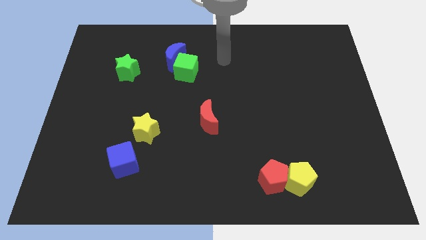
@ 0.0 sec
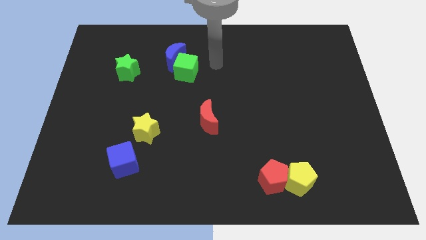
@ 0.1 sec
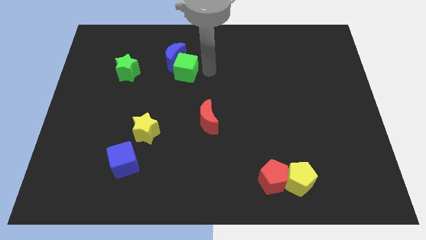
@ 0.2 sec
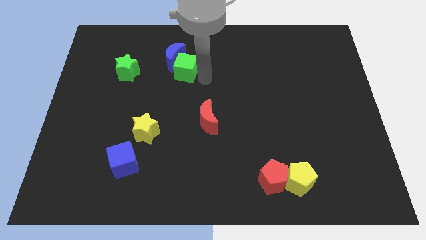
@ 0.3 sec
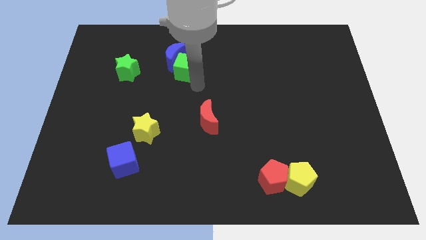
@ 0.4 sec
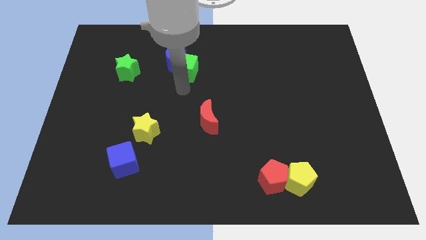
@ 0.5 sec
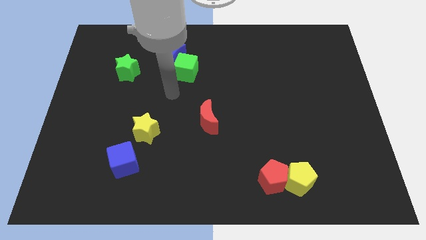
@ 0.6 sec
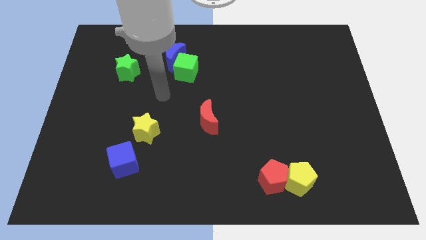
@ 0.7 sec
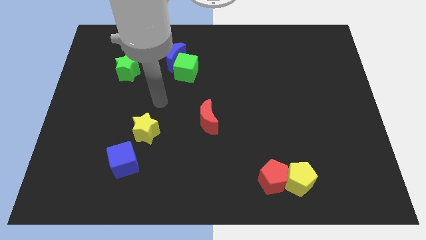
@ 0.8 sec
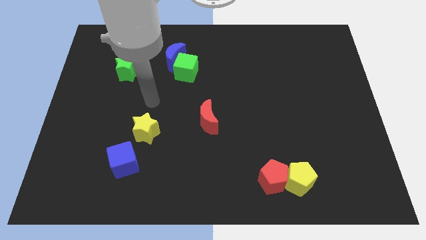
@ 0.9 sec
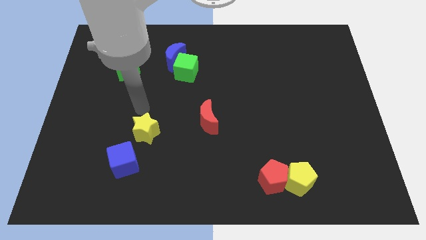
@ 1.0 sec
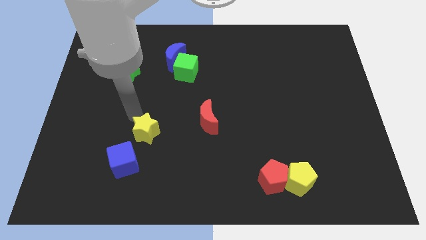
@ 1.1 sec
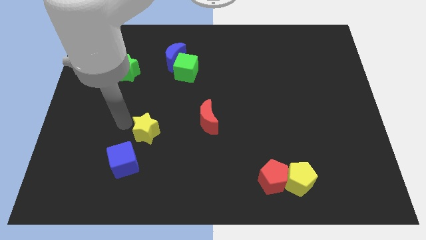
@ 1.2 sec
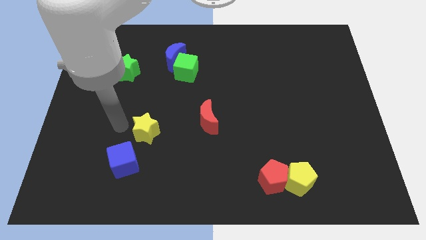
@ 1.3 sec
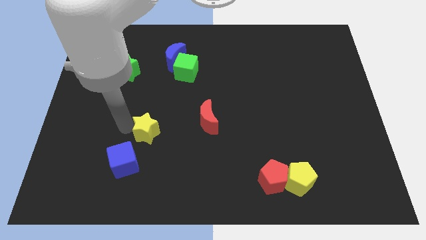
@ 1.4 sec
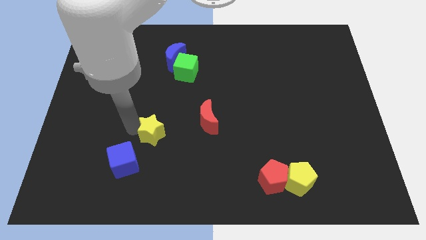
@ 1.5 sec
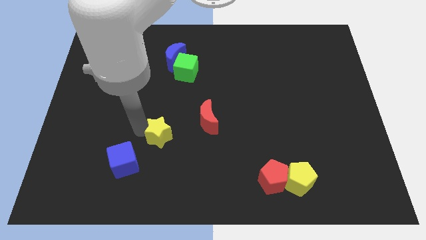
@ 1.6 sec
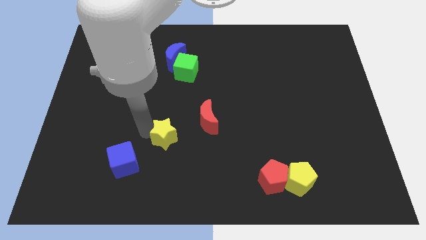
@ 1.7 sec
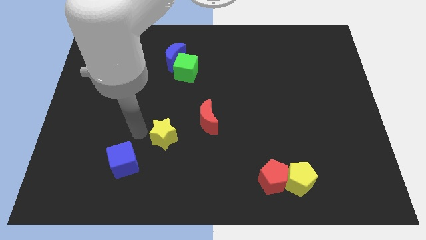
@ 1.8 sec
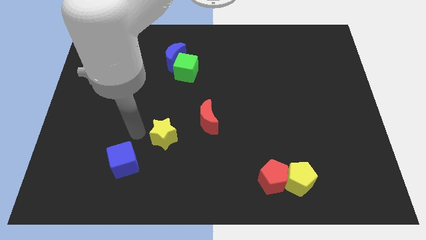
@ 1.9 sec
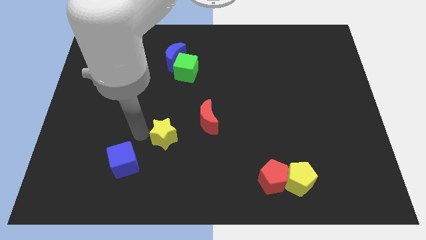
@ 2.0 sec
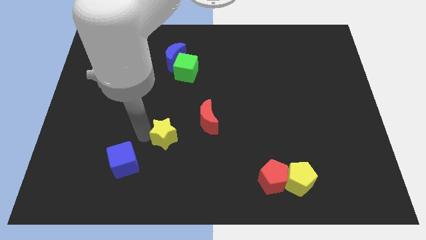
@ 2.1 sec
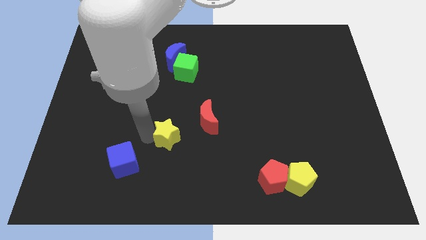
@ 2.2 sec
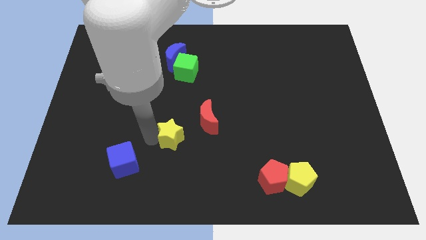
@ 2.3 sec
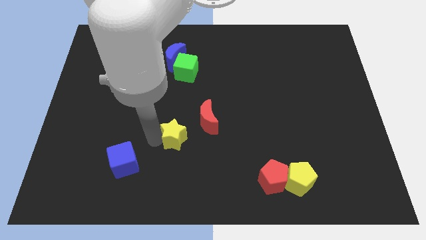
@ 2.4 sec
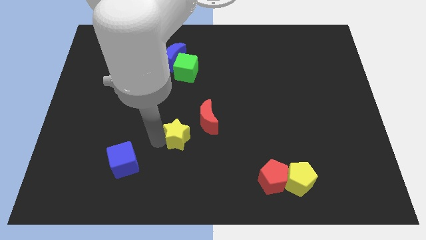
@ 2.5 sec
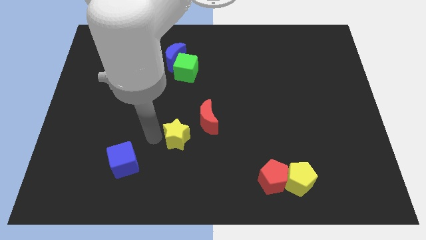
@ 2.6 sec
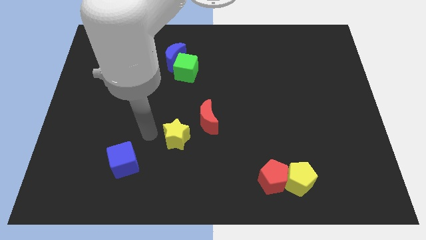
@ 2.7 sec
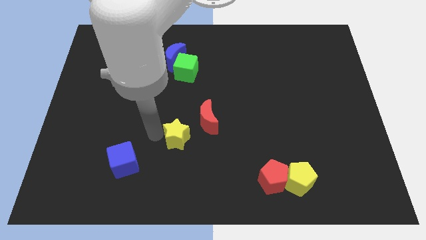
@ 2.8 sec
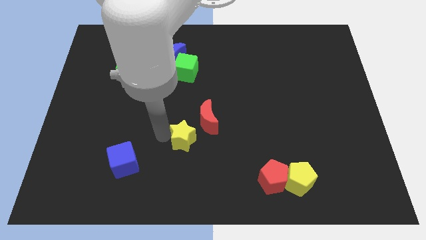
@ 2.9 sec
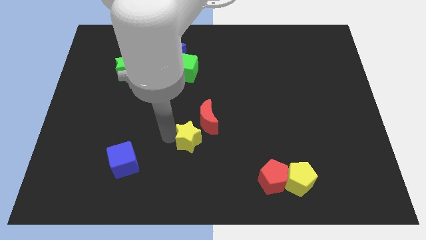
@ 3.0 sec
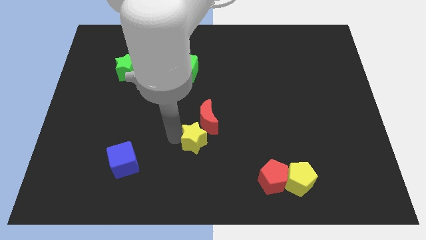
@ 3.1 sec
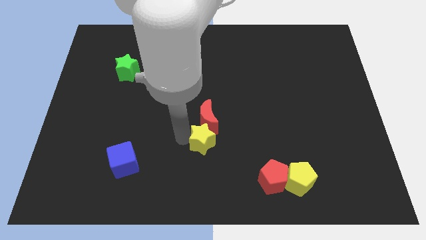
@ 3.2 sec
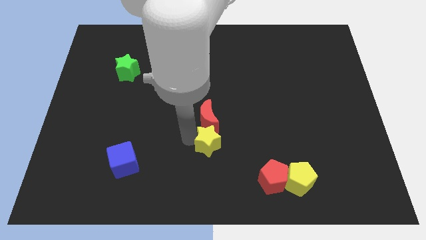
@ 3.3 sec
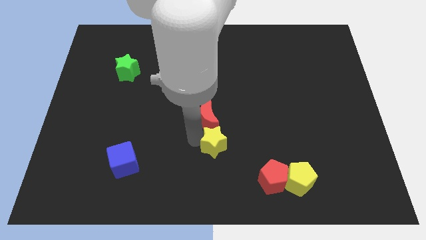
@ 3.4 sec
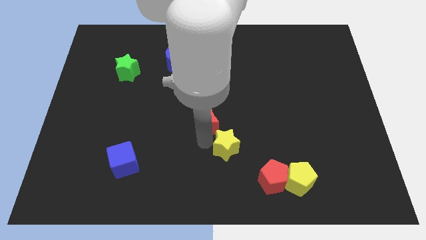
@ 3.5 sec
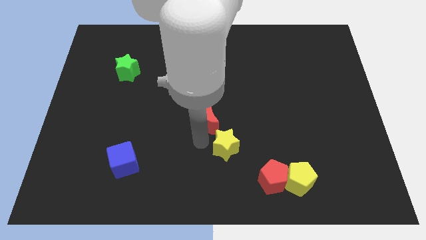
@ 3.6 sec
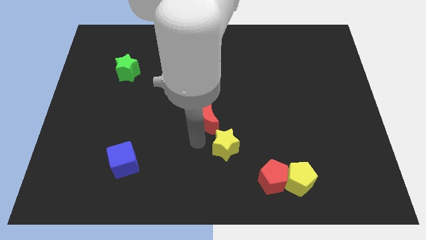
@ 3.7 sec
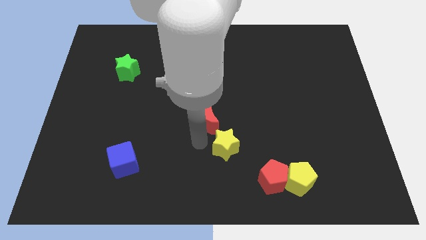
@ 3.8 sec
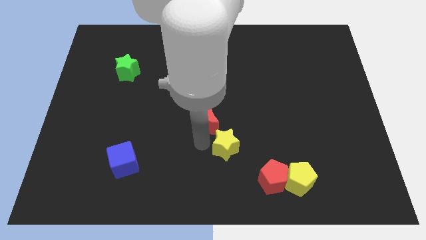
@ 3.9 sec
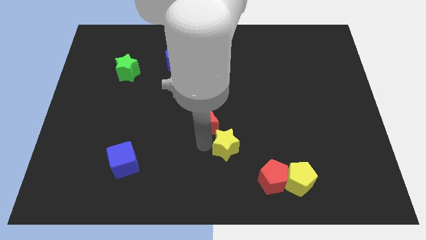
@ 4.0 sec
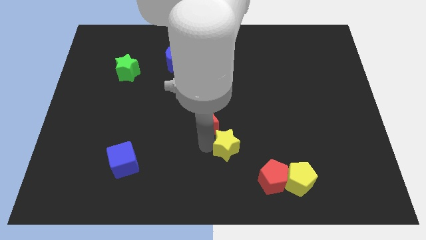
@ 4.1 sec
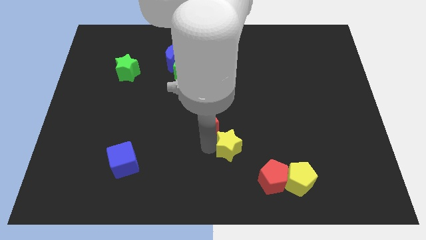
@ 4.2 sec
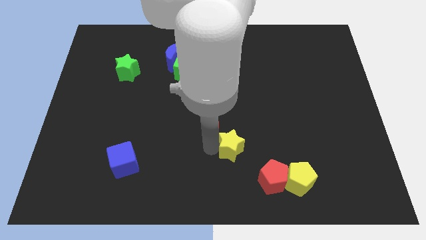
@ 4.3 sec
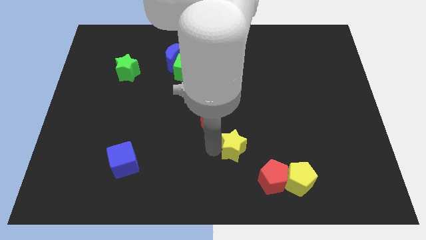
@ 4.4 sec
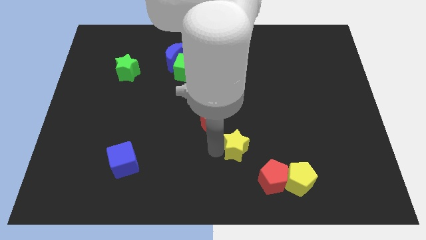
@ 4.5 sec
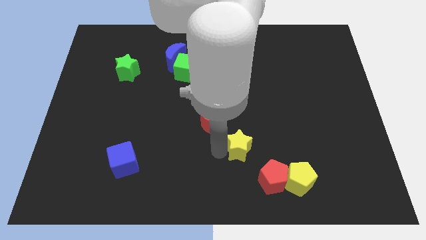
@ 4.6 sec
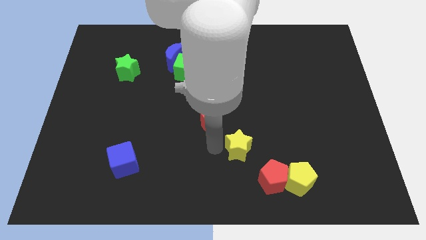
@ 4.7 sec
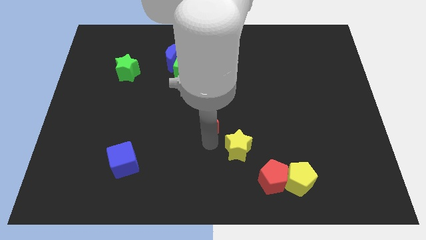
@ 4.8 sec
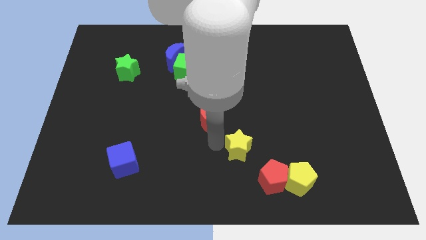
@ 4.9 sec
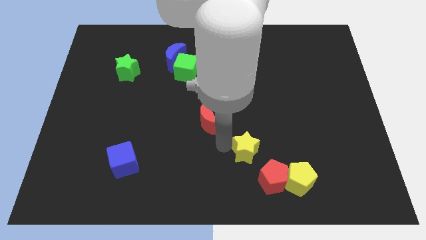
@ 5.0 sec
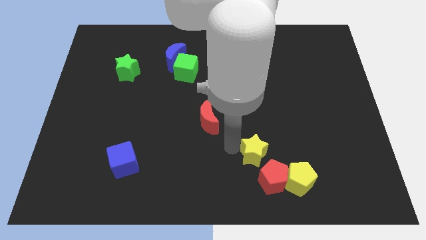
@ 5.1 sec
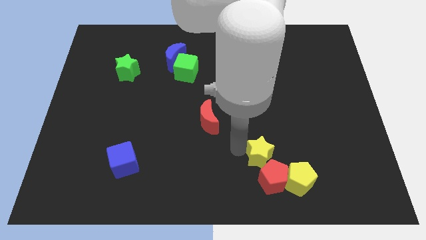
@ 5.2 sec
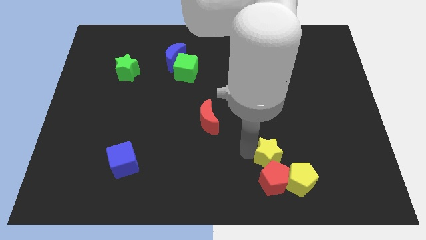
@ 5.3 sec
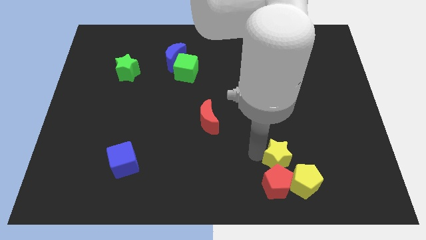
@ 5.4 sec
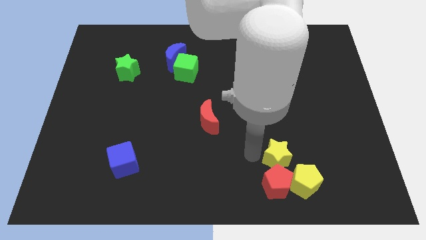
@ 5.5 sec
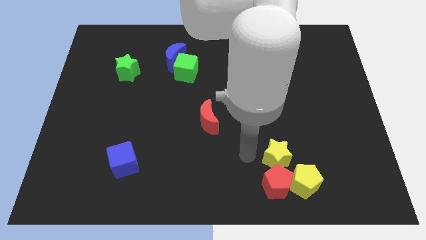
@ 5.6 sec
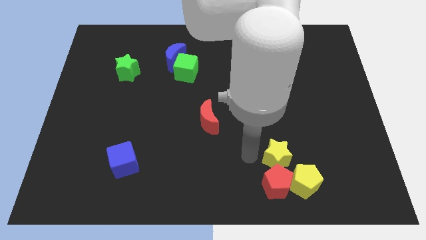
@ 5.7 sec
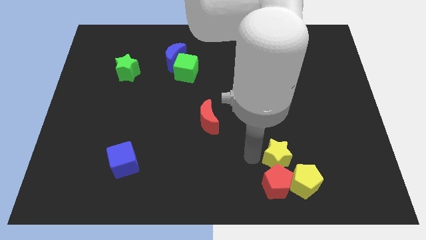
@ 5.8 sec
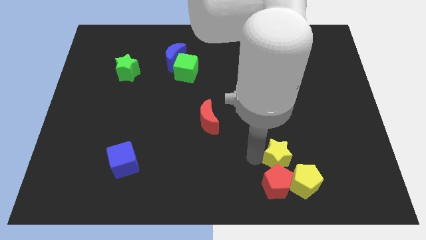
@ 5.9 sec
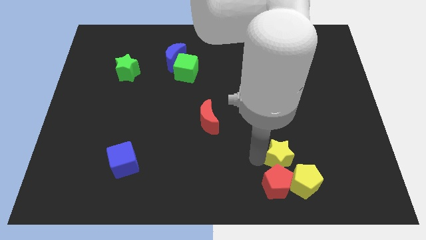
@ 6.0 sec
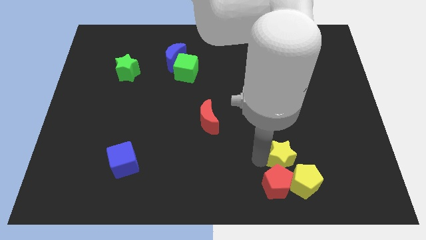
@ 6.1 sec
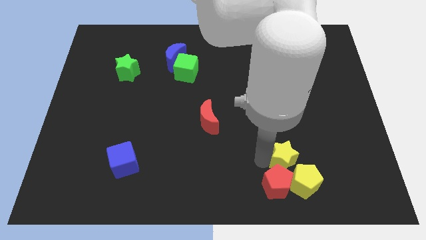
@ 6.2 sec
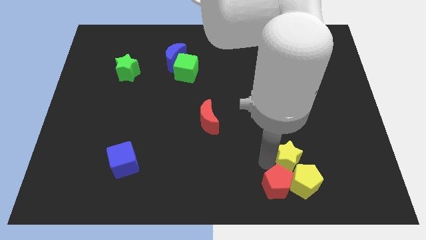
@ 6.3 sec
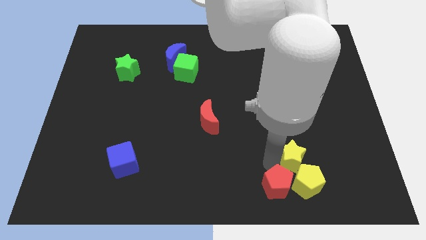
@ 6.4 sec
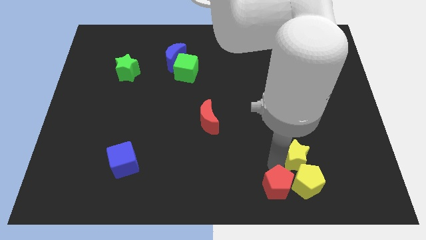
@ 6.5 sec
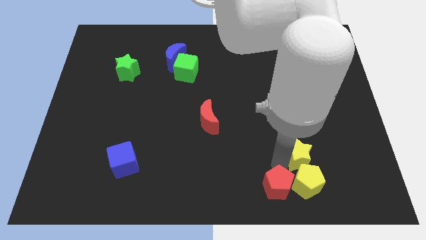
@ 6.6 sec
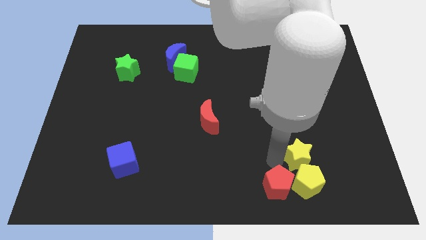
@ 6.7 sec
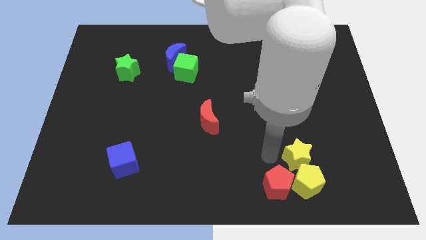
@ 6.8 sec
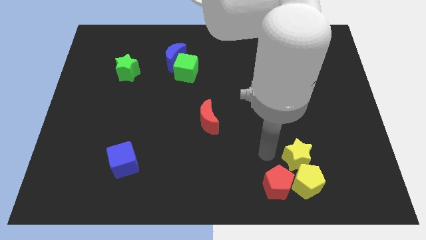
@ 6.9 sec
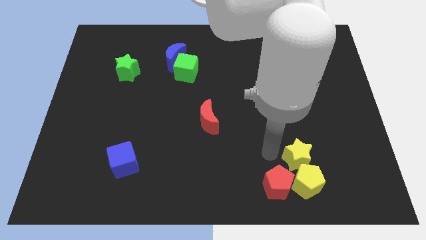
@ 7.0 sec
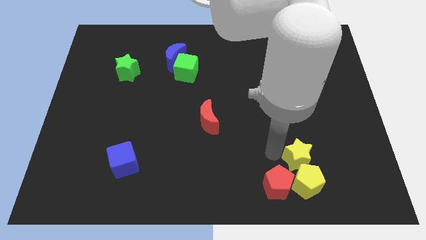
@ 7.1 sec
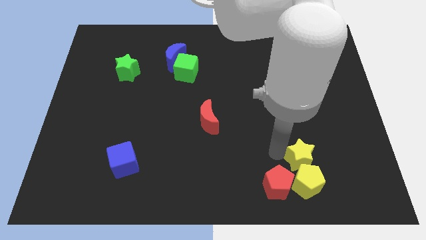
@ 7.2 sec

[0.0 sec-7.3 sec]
put the yellow star to the top right of the yellow pentagon
